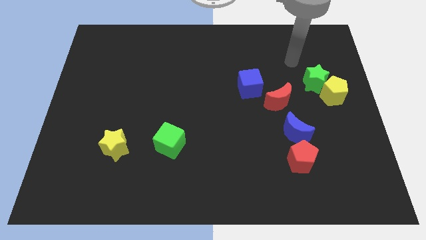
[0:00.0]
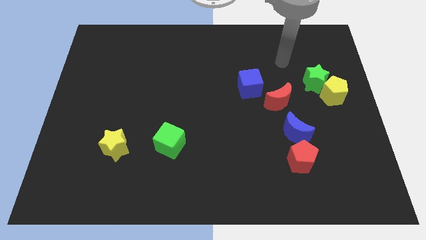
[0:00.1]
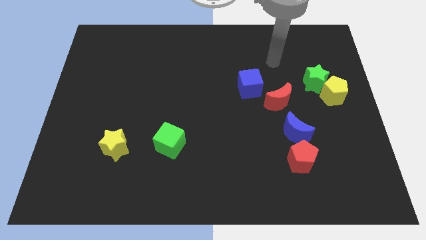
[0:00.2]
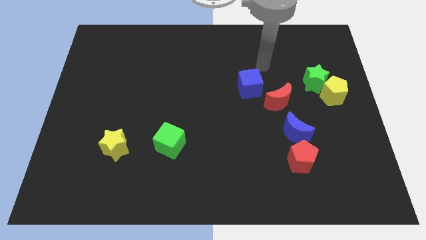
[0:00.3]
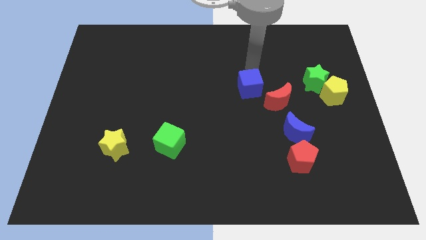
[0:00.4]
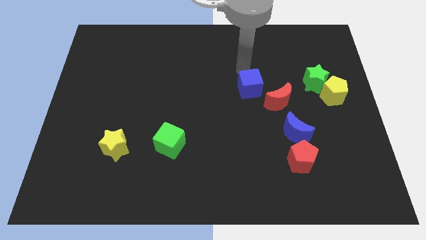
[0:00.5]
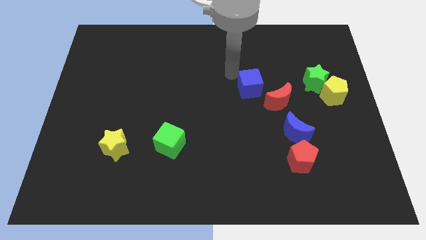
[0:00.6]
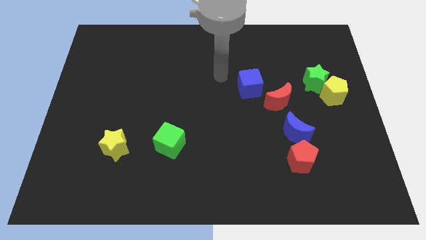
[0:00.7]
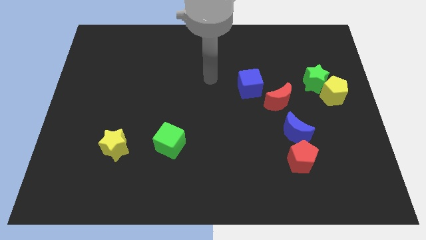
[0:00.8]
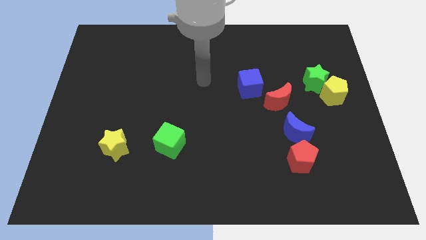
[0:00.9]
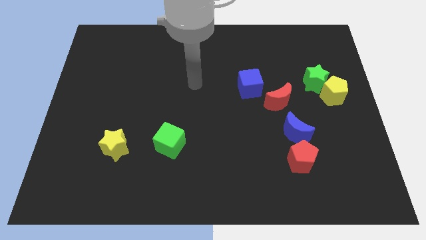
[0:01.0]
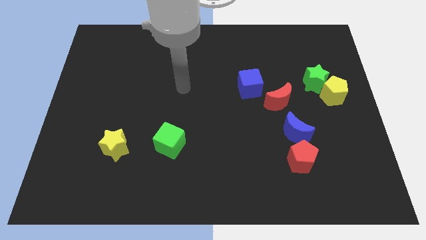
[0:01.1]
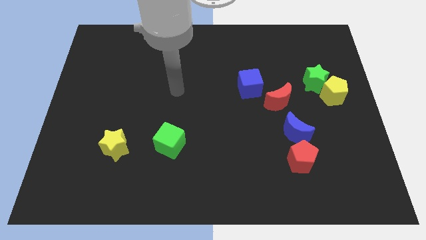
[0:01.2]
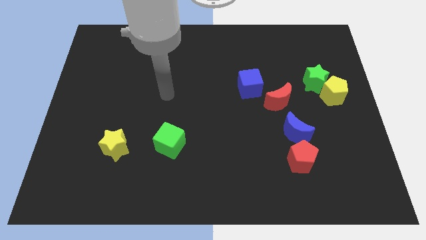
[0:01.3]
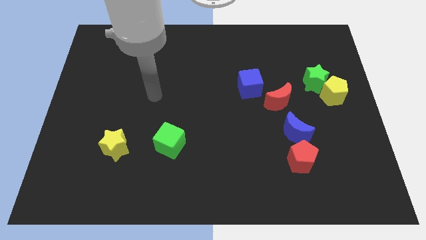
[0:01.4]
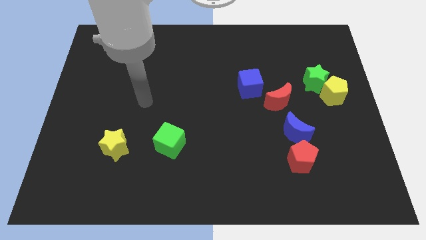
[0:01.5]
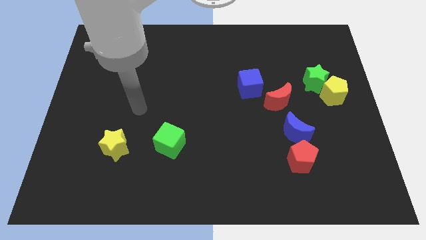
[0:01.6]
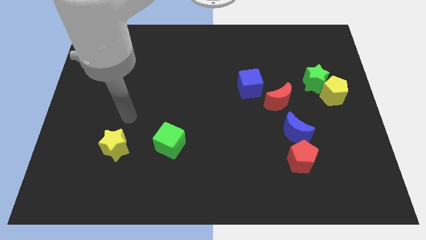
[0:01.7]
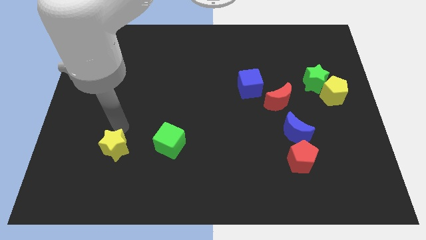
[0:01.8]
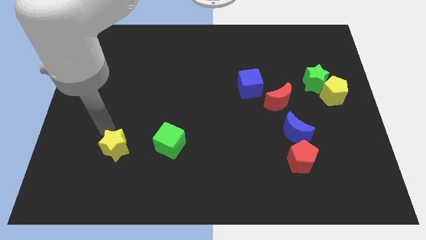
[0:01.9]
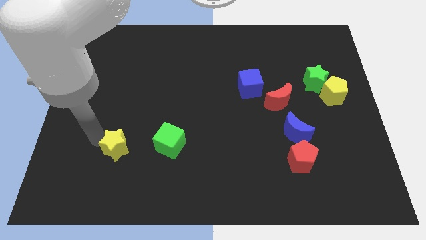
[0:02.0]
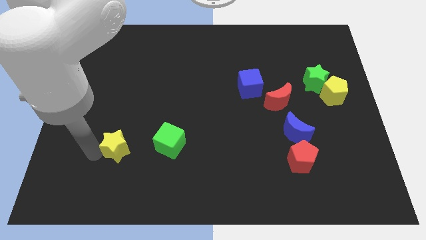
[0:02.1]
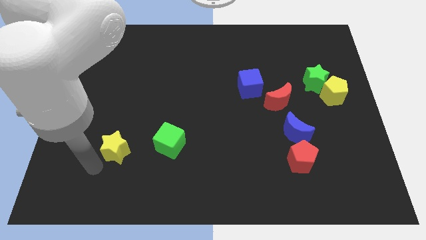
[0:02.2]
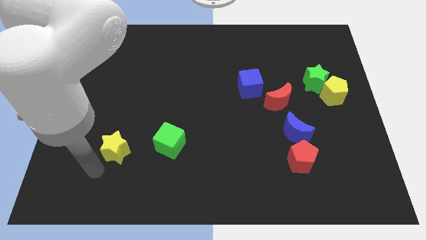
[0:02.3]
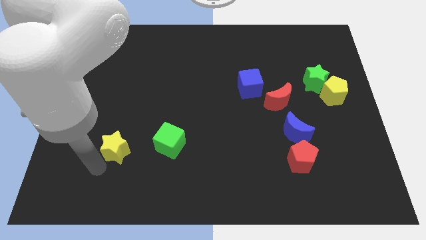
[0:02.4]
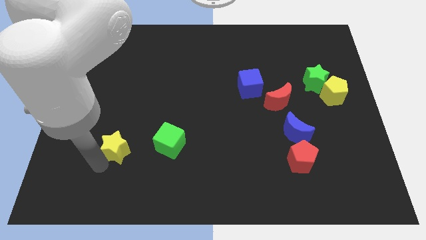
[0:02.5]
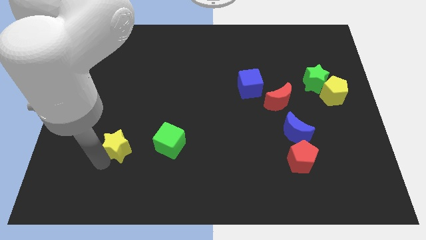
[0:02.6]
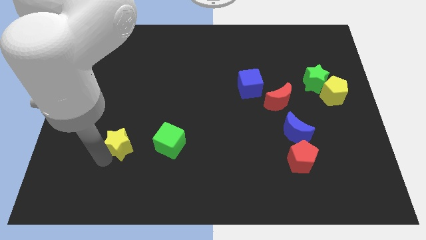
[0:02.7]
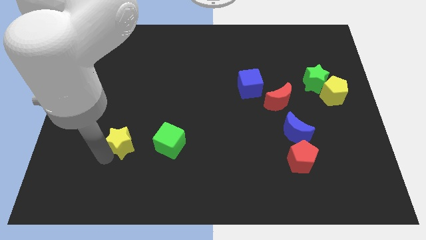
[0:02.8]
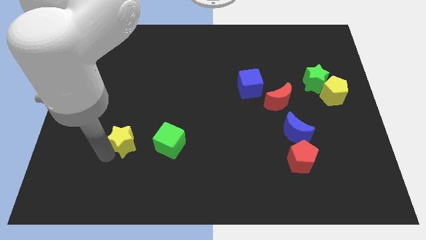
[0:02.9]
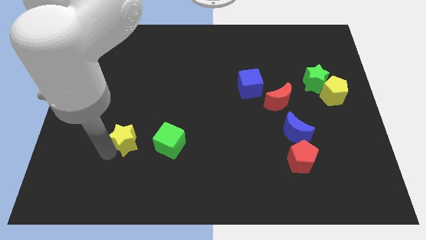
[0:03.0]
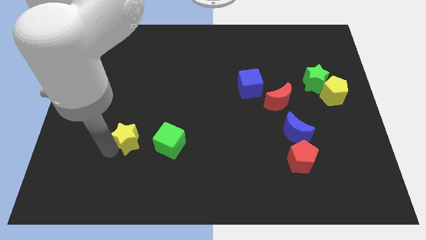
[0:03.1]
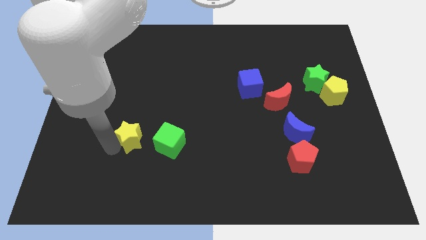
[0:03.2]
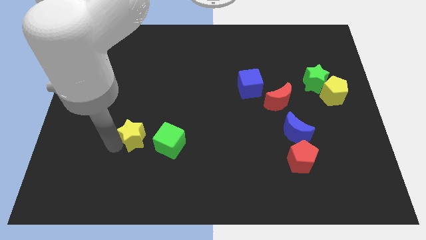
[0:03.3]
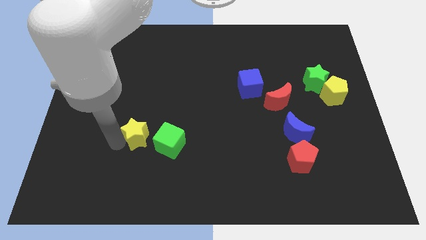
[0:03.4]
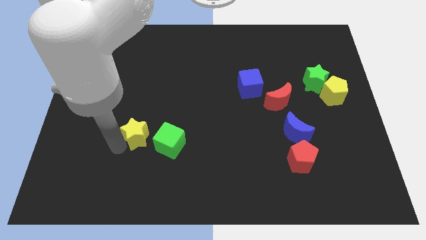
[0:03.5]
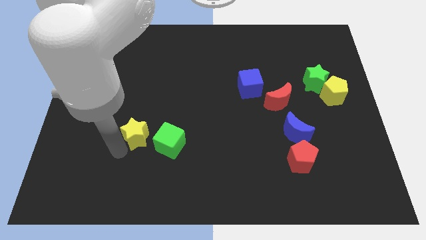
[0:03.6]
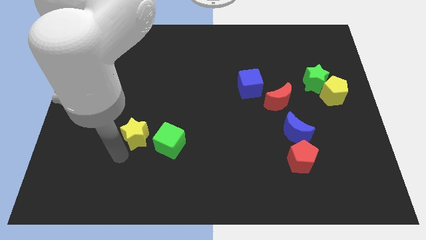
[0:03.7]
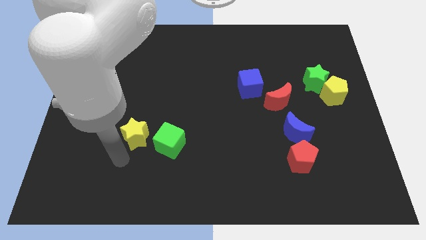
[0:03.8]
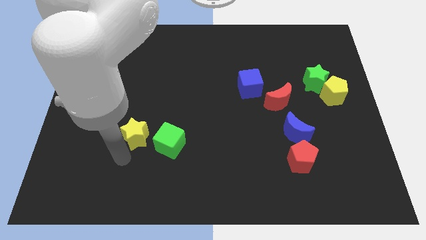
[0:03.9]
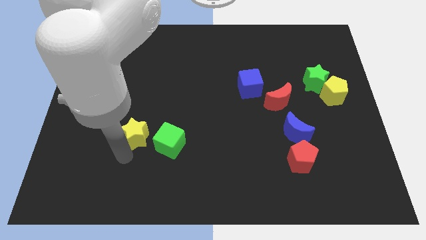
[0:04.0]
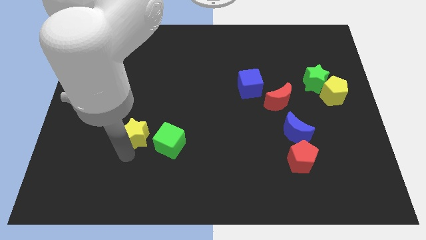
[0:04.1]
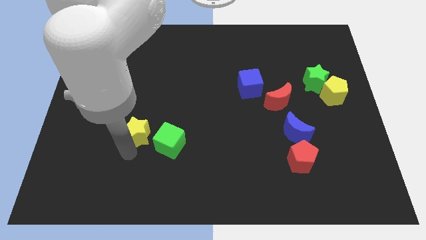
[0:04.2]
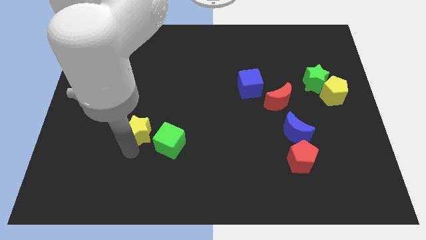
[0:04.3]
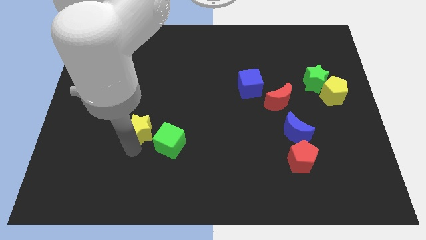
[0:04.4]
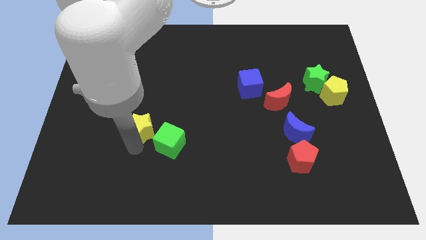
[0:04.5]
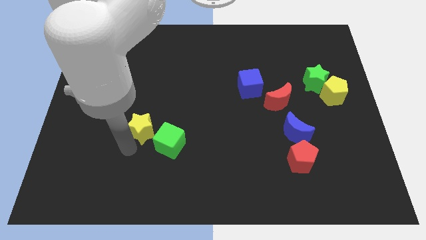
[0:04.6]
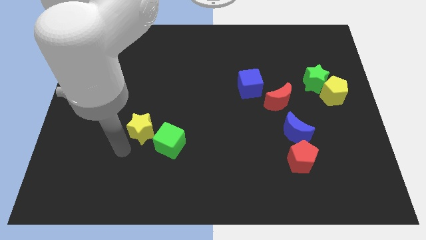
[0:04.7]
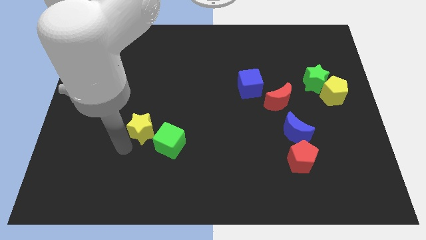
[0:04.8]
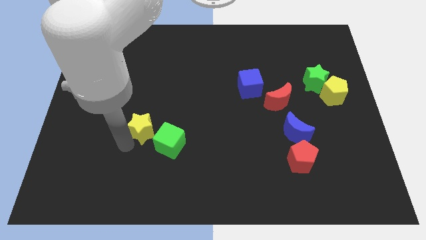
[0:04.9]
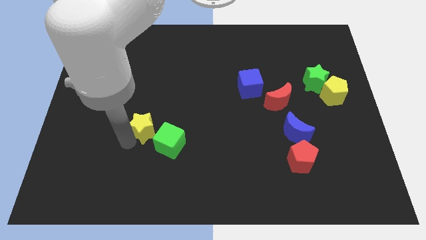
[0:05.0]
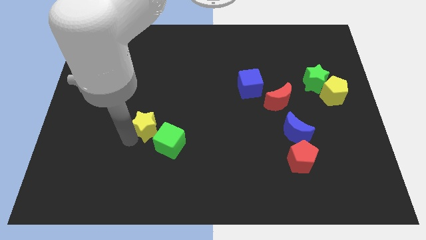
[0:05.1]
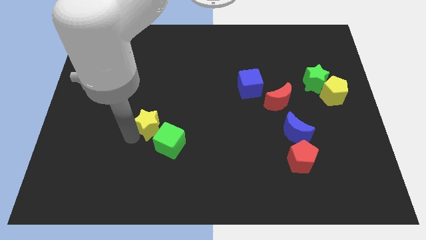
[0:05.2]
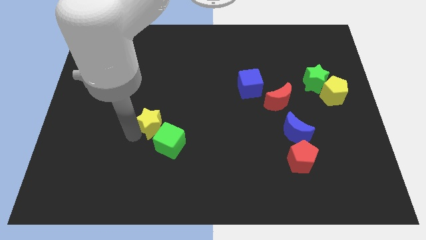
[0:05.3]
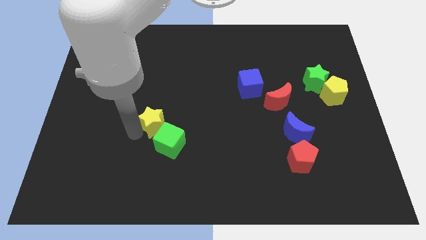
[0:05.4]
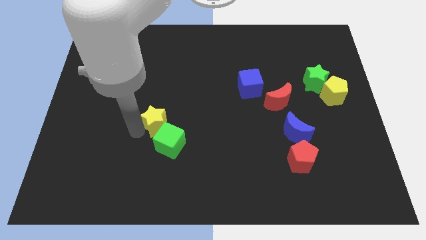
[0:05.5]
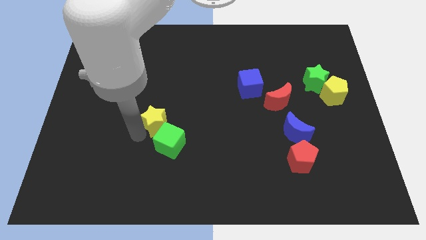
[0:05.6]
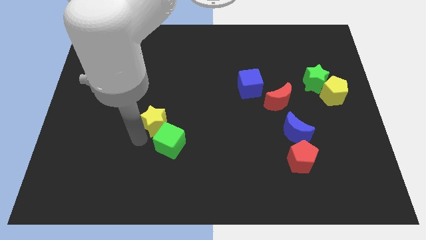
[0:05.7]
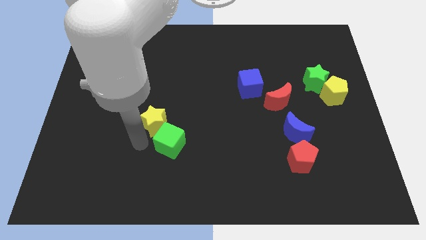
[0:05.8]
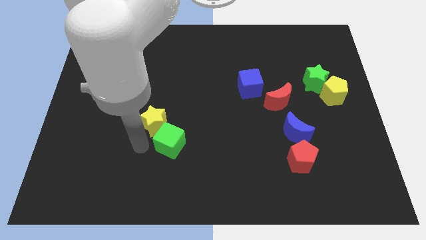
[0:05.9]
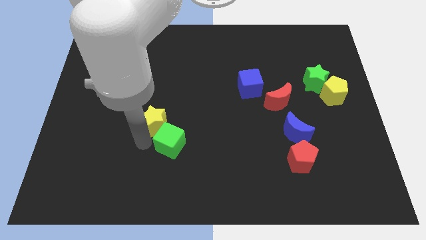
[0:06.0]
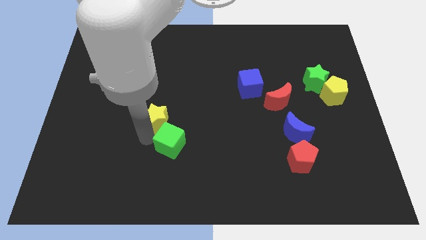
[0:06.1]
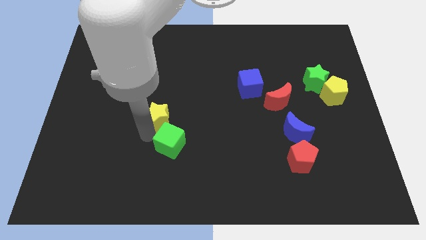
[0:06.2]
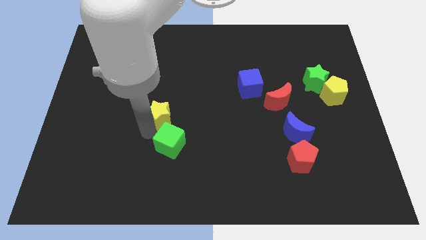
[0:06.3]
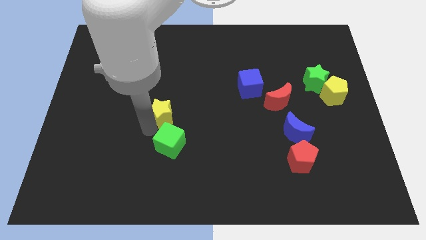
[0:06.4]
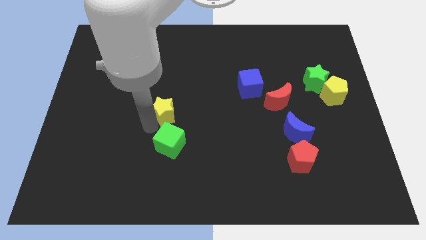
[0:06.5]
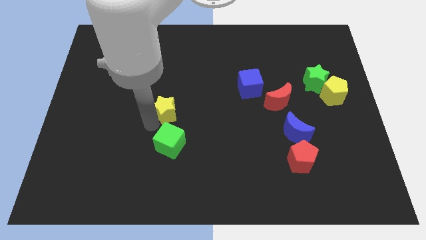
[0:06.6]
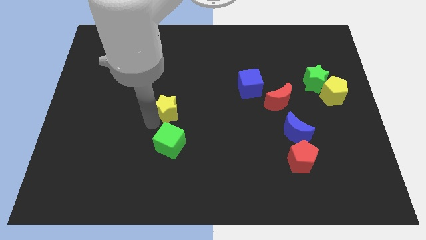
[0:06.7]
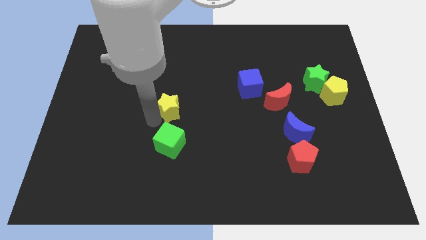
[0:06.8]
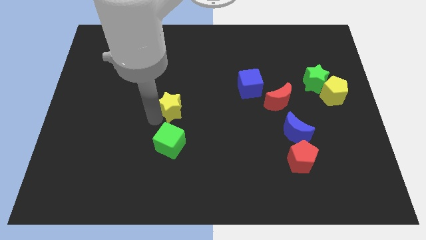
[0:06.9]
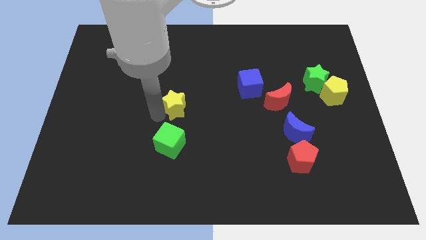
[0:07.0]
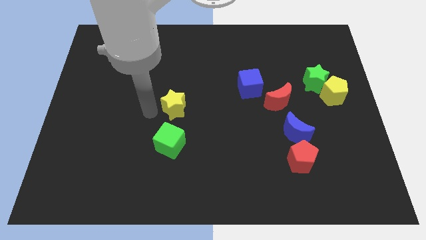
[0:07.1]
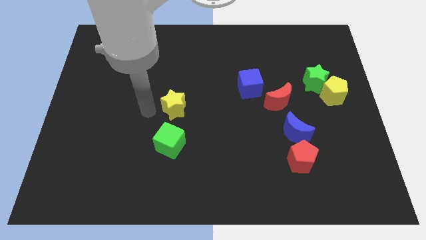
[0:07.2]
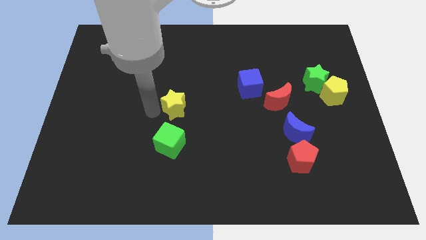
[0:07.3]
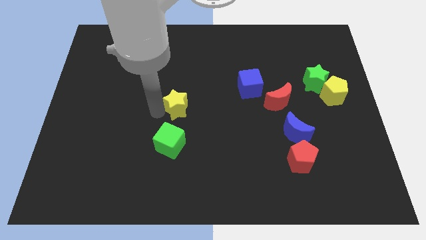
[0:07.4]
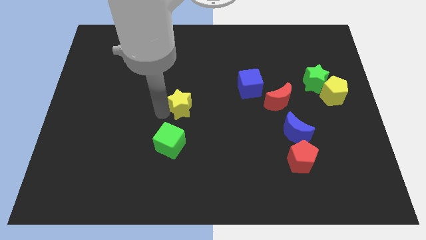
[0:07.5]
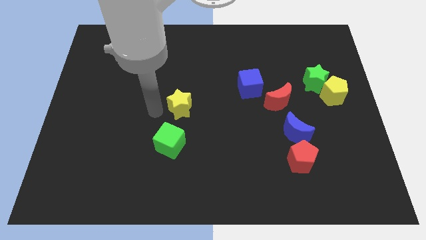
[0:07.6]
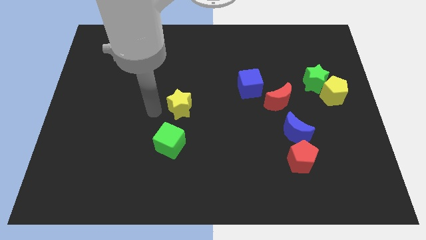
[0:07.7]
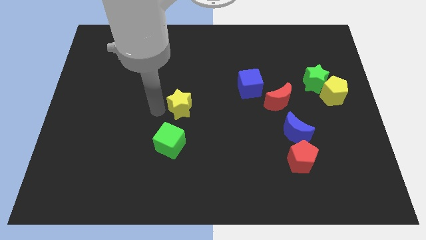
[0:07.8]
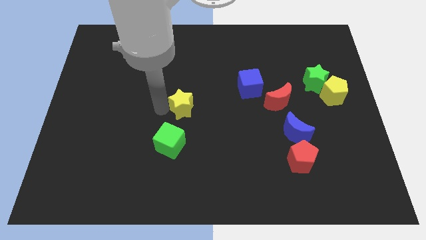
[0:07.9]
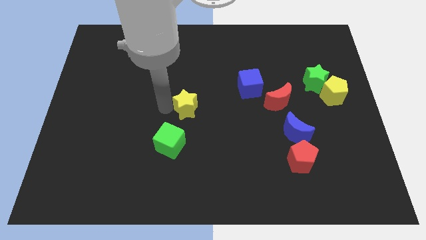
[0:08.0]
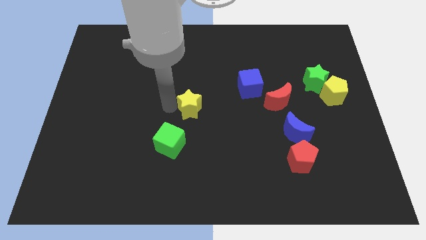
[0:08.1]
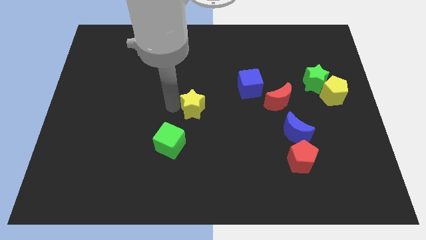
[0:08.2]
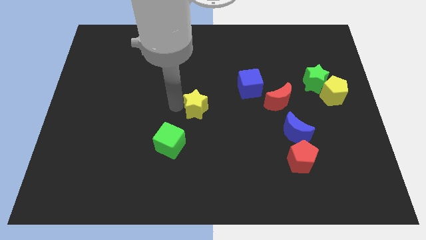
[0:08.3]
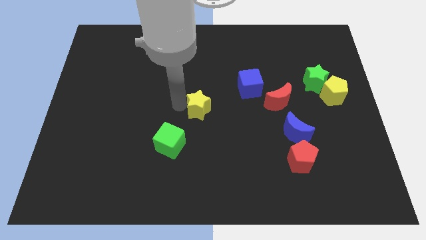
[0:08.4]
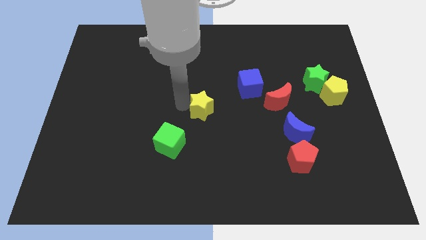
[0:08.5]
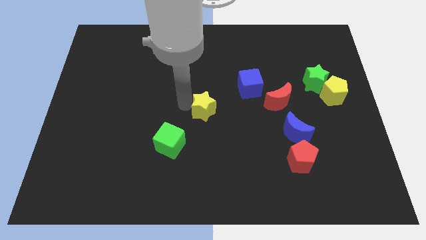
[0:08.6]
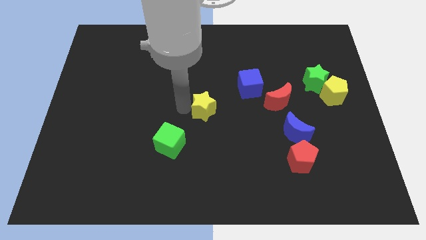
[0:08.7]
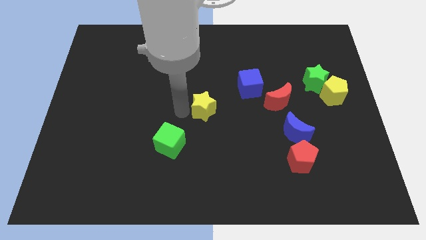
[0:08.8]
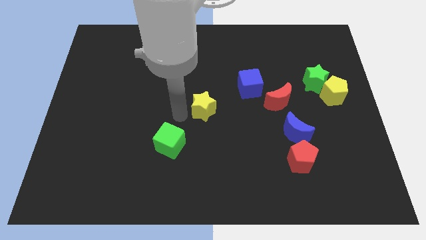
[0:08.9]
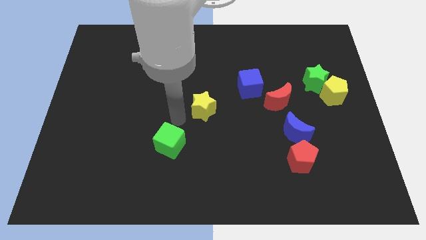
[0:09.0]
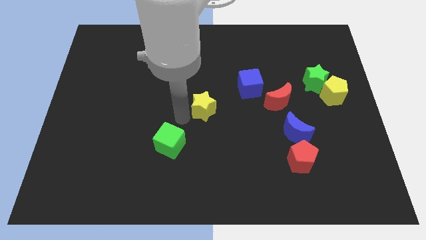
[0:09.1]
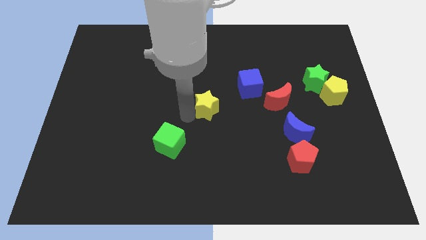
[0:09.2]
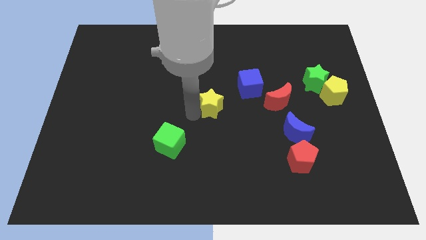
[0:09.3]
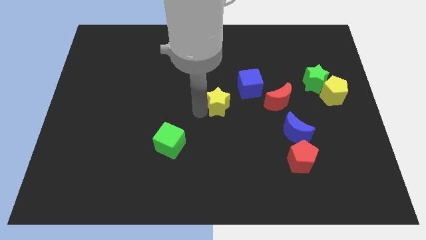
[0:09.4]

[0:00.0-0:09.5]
push the yellow star left of the red moon
